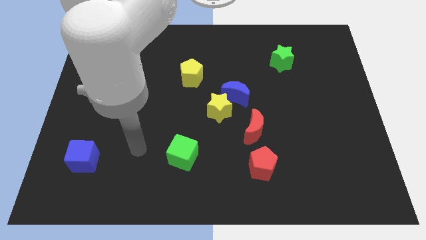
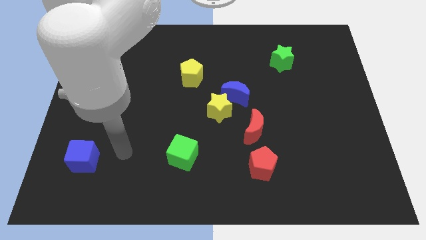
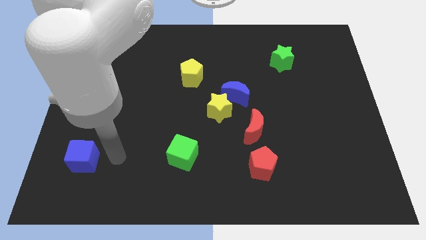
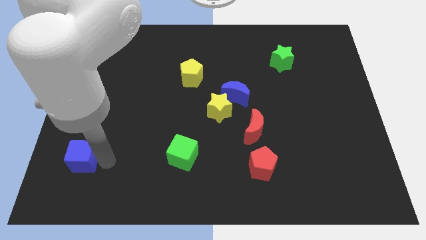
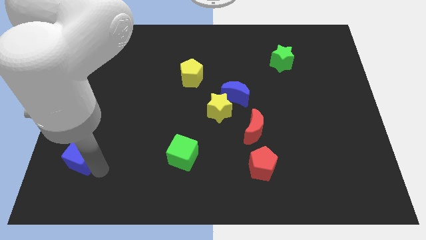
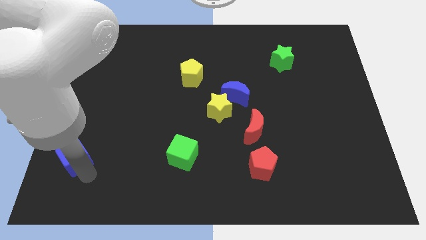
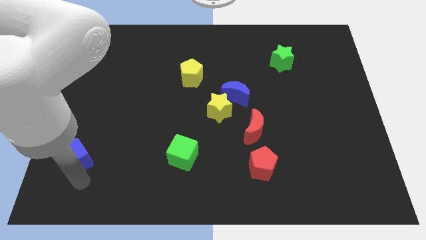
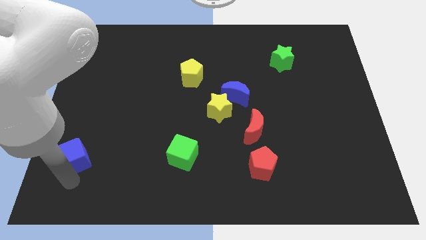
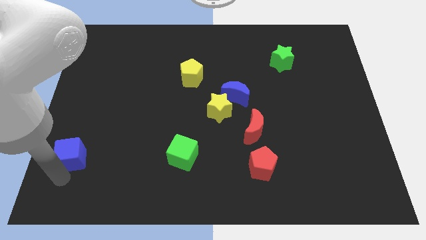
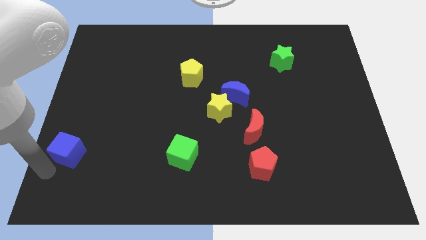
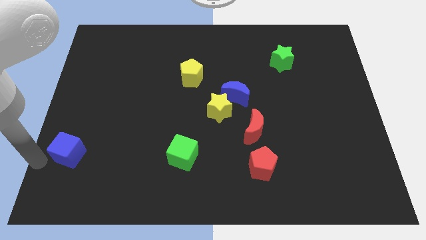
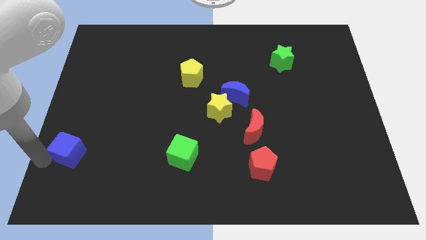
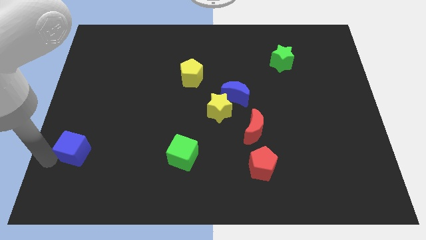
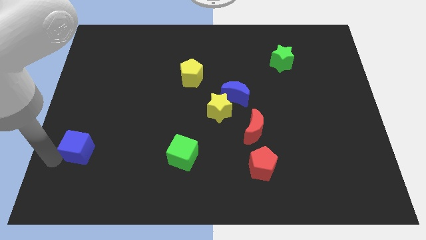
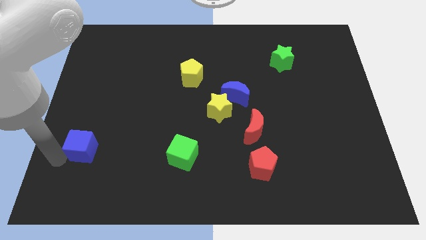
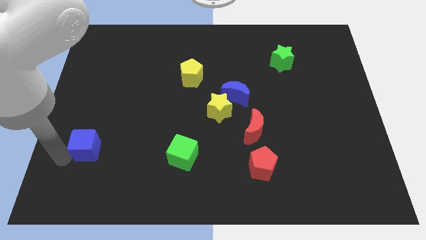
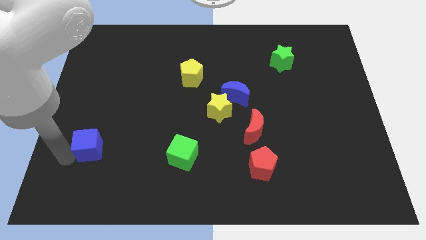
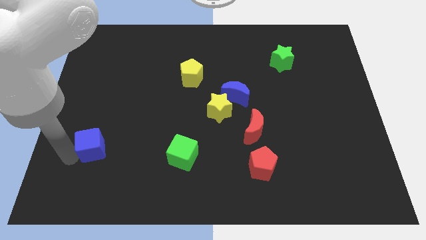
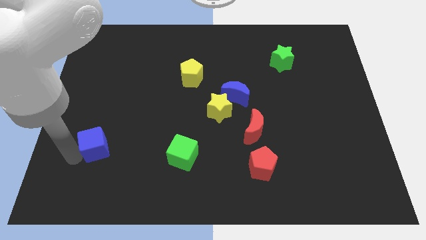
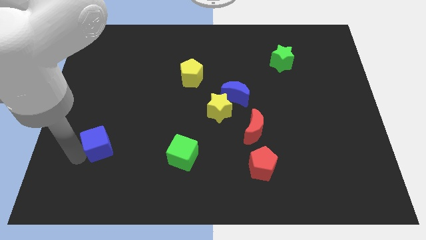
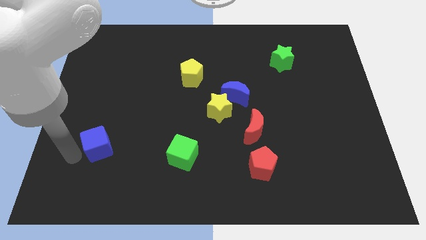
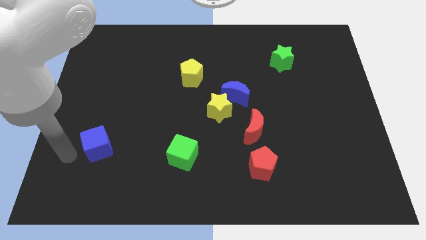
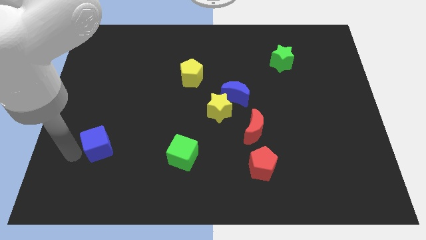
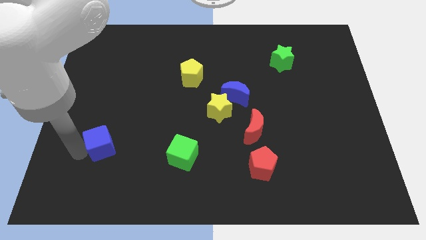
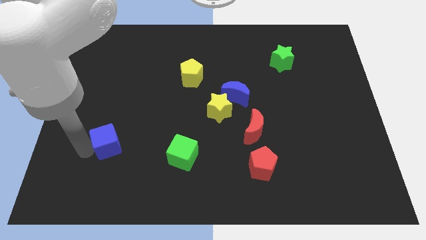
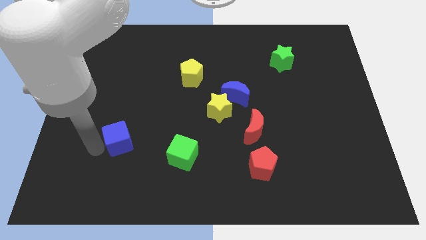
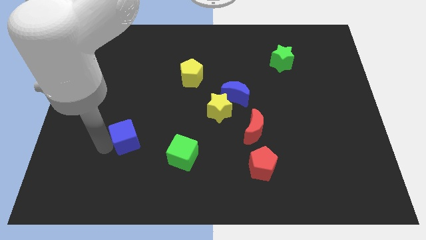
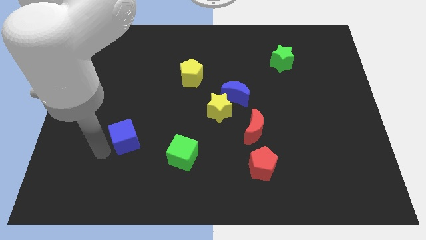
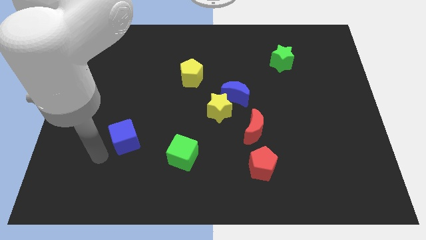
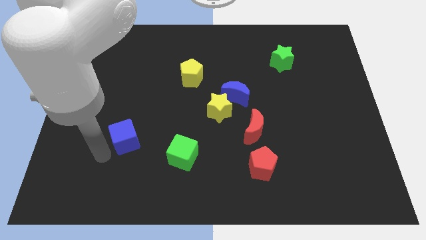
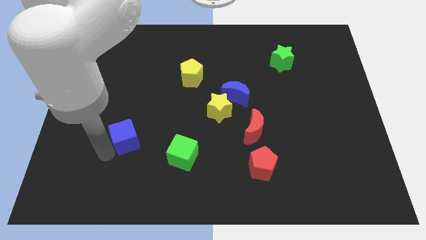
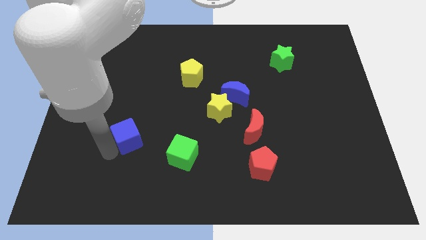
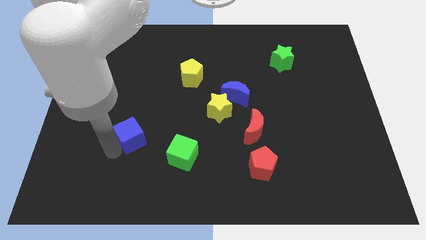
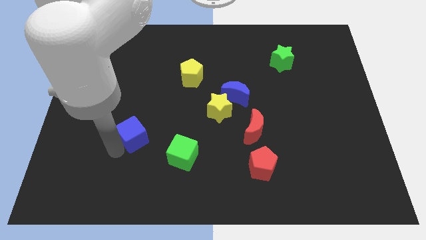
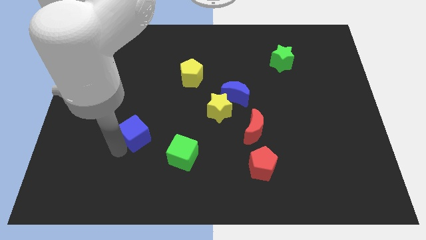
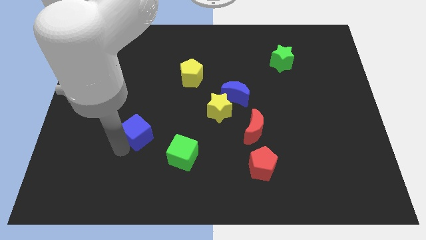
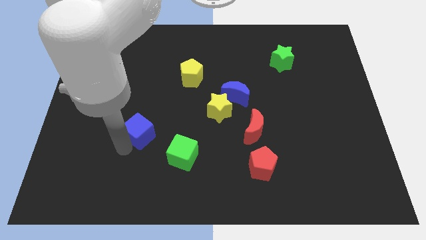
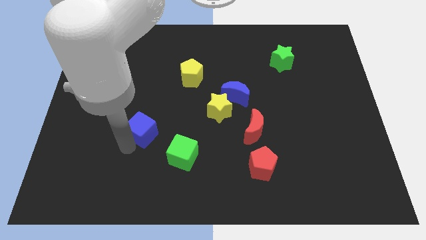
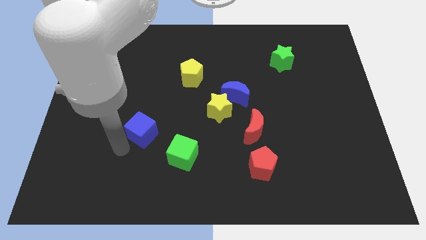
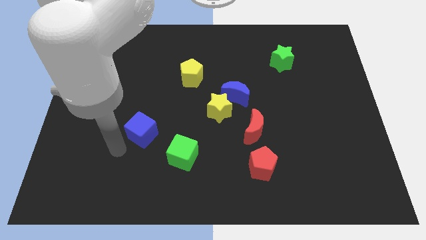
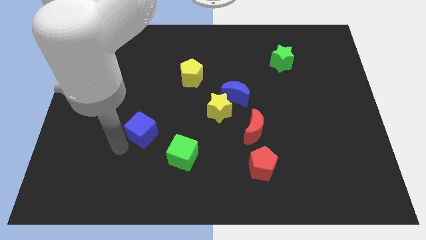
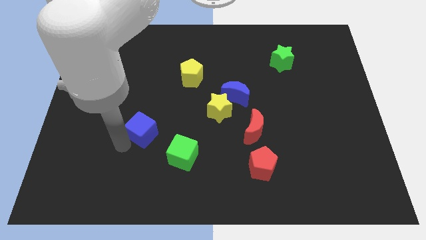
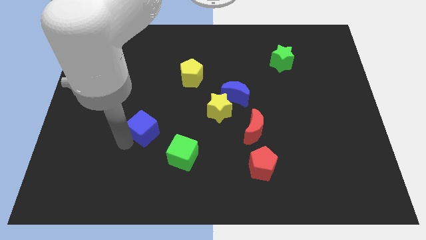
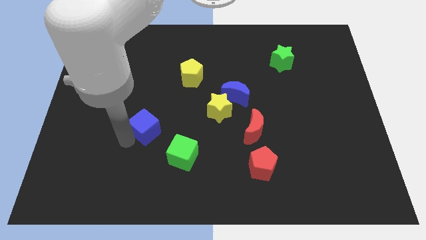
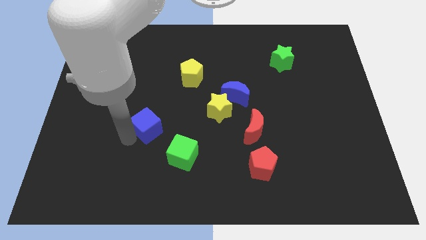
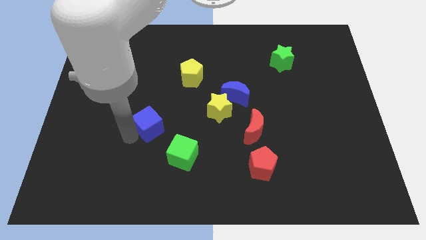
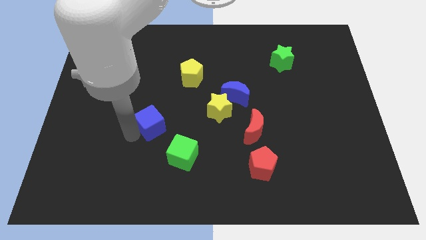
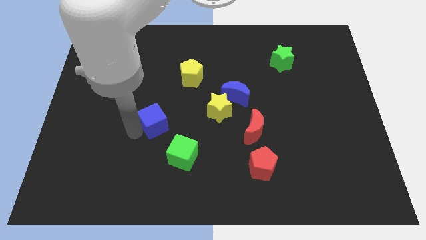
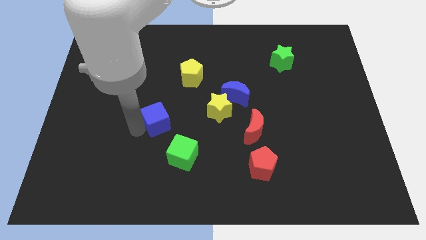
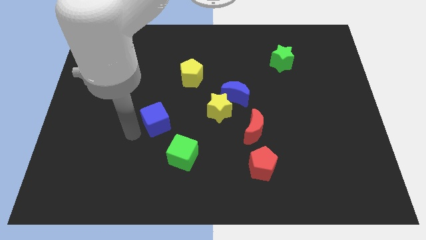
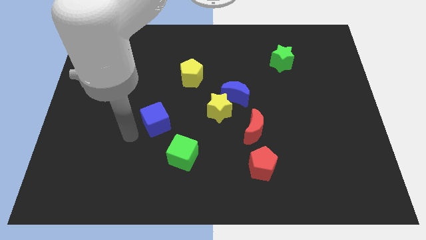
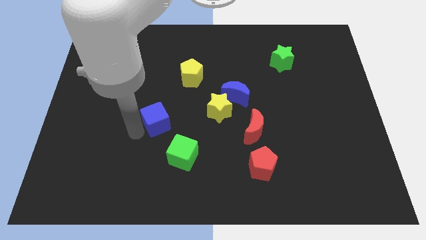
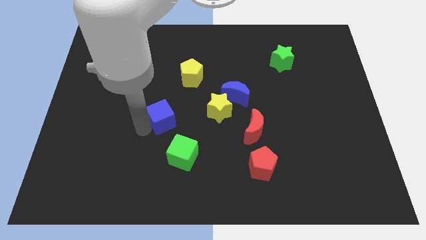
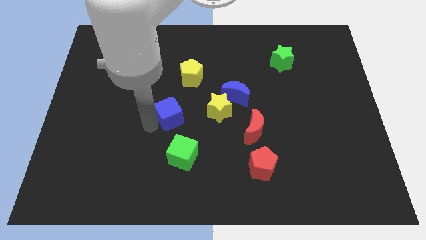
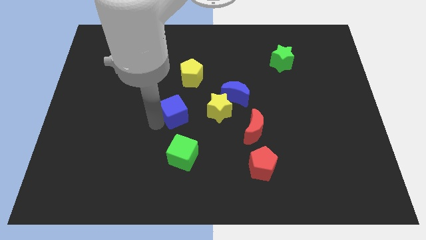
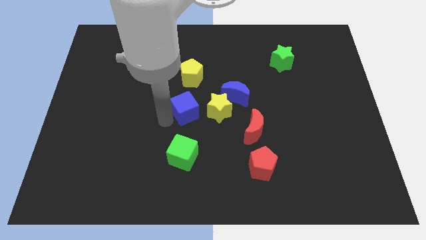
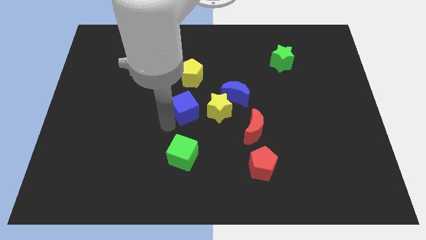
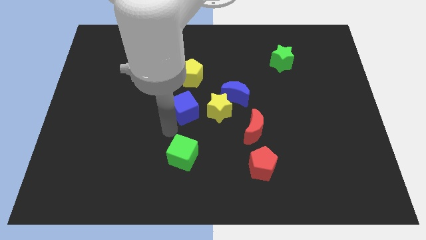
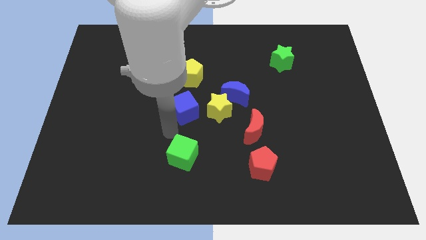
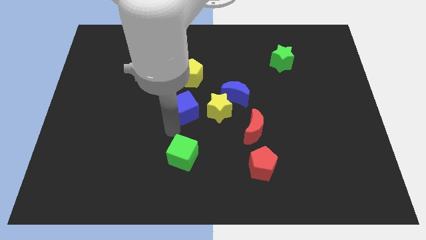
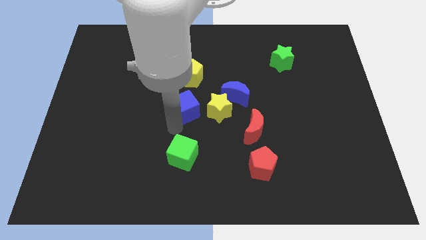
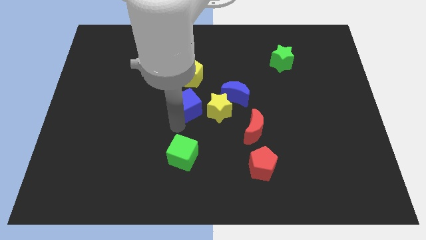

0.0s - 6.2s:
push the blue cube diagonally up and to the left of the yellow star
